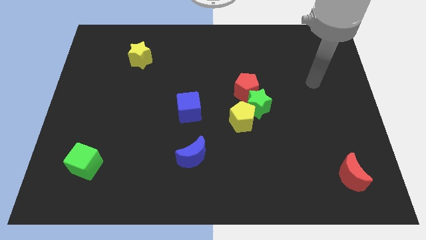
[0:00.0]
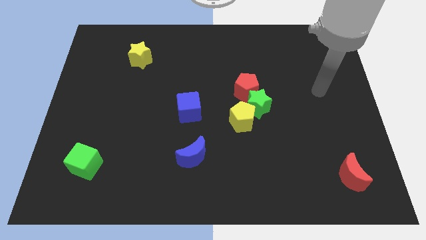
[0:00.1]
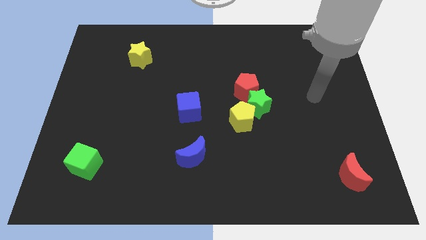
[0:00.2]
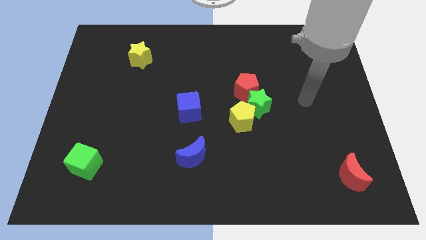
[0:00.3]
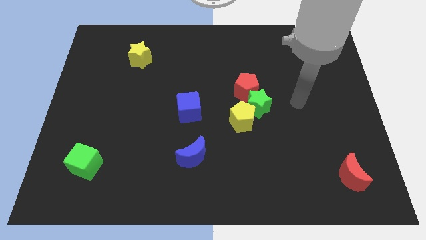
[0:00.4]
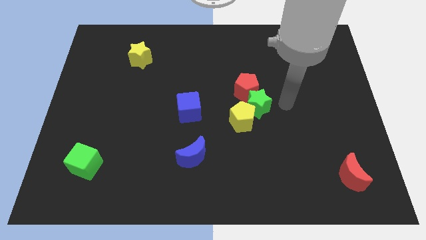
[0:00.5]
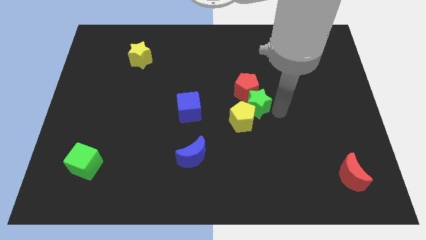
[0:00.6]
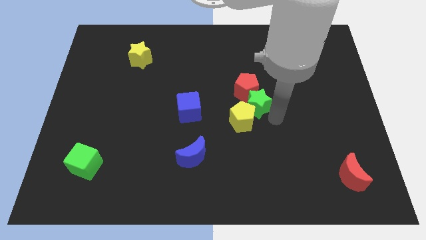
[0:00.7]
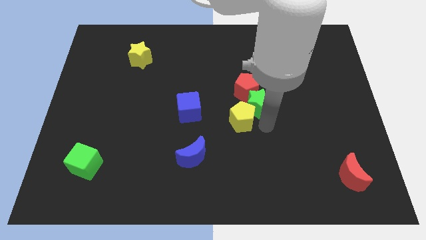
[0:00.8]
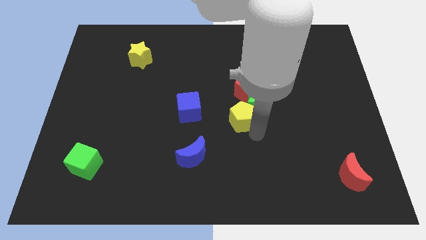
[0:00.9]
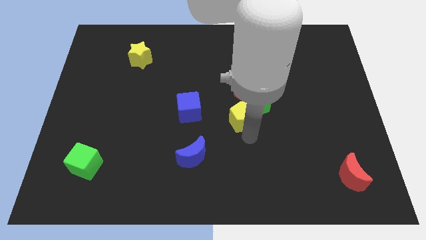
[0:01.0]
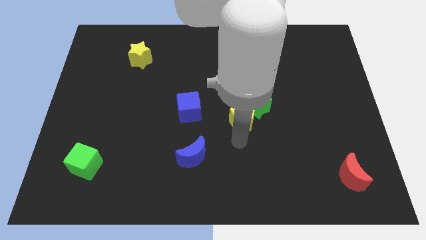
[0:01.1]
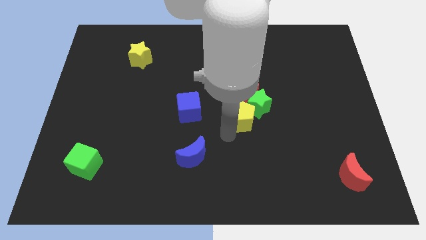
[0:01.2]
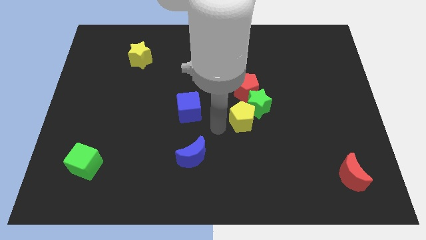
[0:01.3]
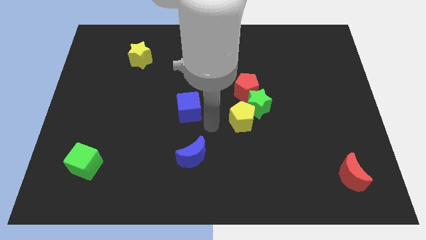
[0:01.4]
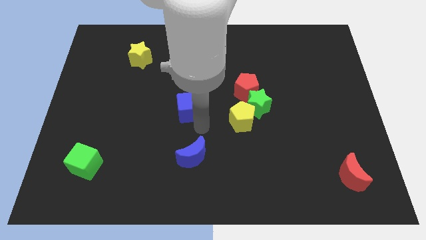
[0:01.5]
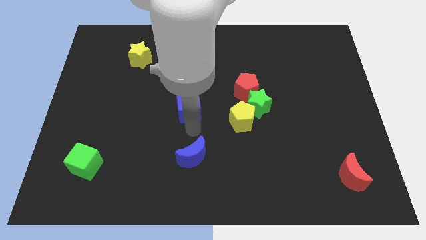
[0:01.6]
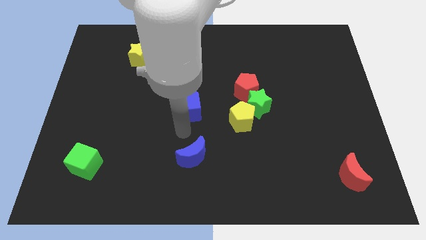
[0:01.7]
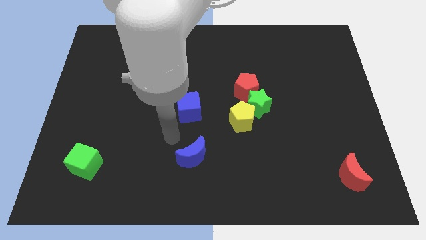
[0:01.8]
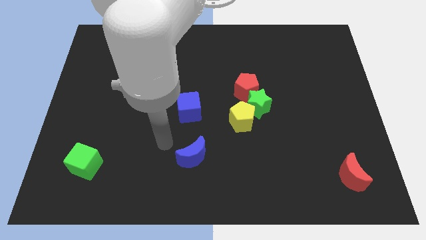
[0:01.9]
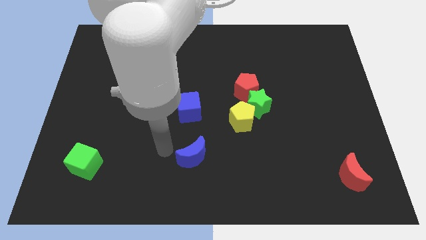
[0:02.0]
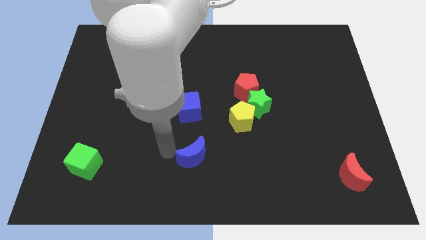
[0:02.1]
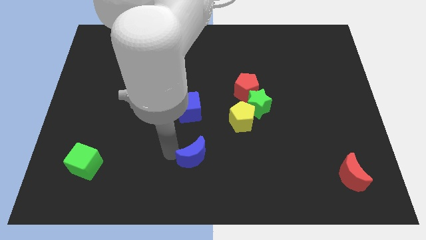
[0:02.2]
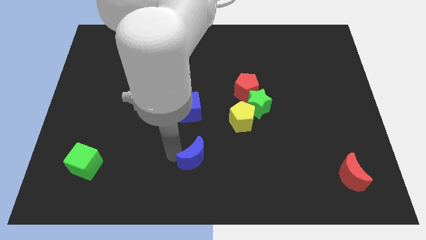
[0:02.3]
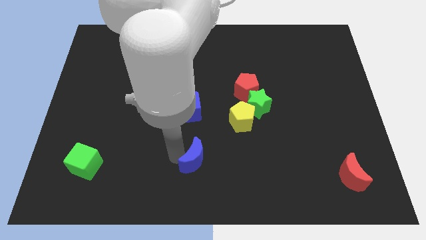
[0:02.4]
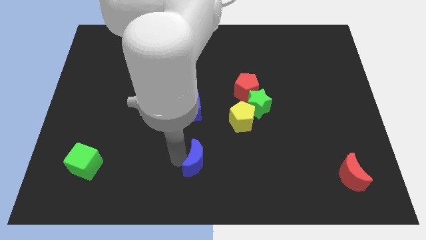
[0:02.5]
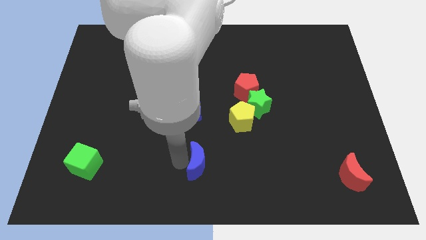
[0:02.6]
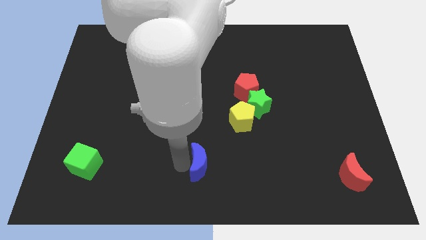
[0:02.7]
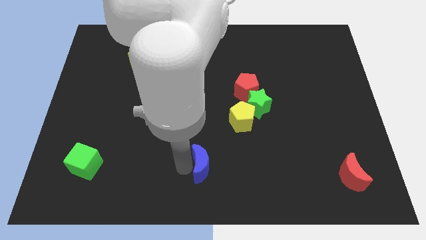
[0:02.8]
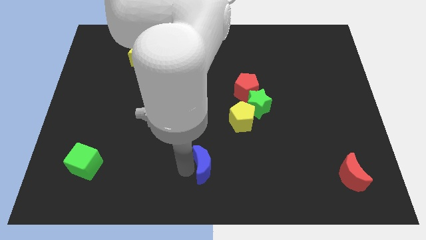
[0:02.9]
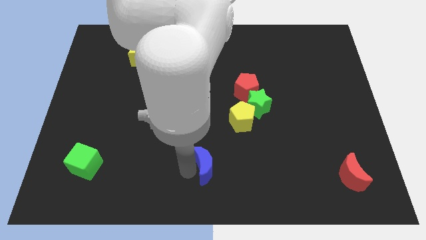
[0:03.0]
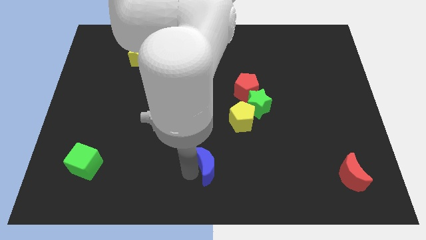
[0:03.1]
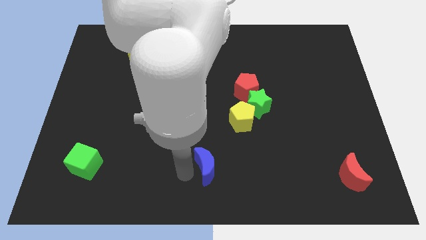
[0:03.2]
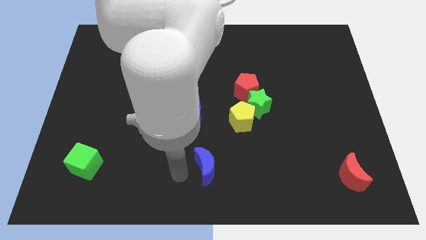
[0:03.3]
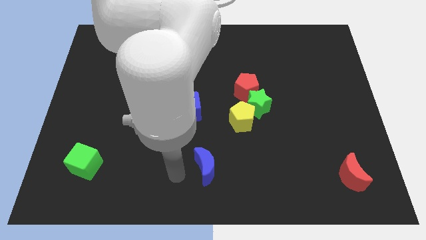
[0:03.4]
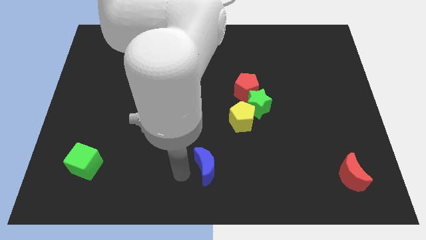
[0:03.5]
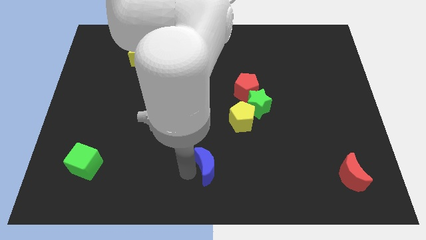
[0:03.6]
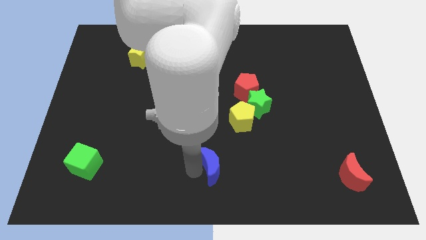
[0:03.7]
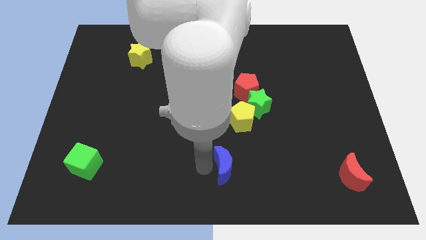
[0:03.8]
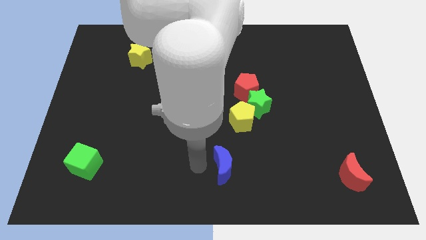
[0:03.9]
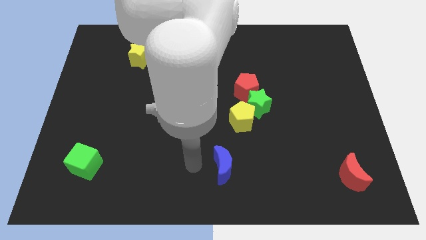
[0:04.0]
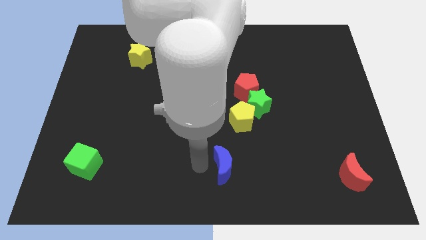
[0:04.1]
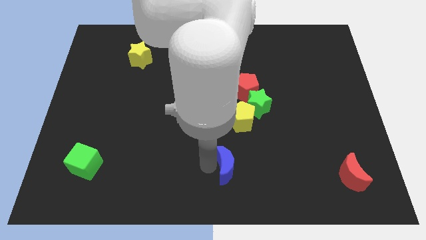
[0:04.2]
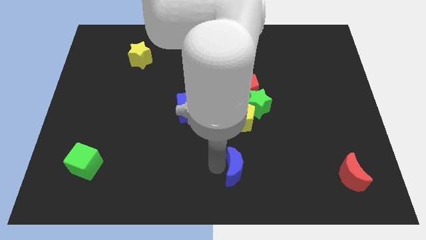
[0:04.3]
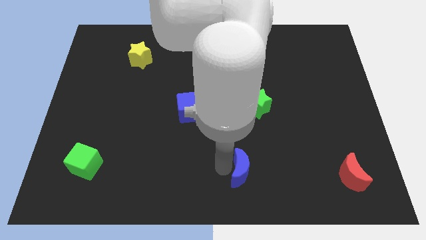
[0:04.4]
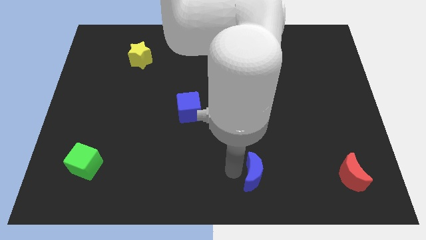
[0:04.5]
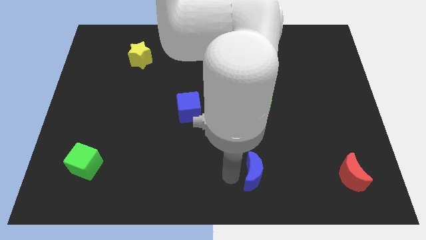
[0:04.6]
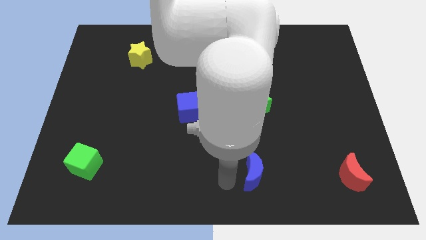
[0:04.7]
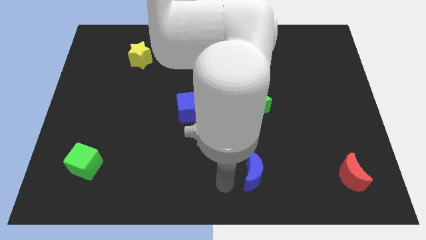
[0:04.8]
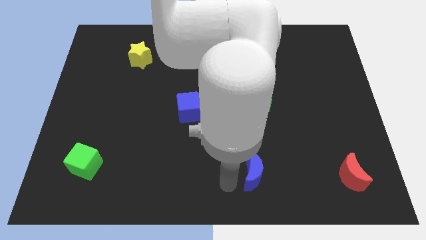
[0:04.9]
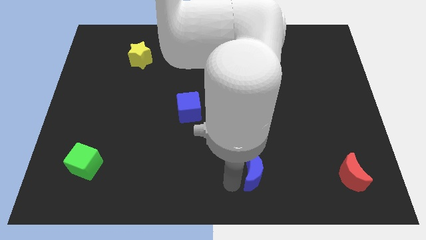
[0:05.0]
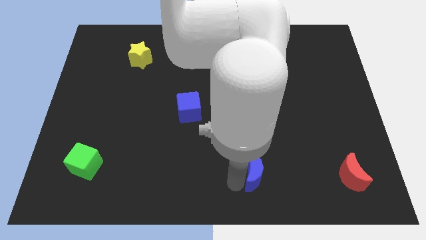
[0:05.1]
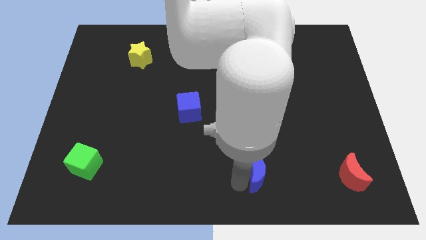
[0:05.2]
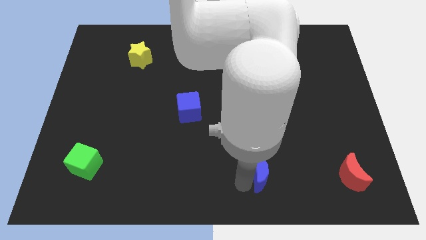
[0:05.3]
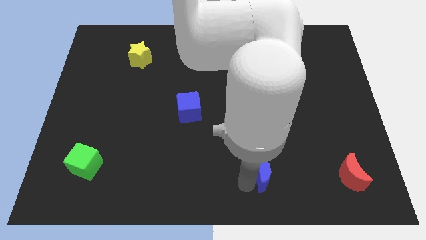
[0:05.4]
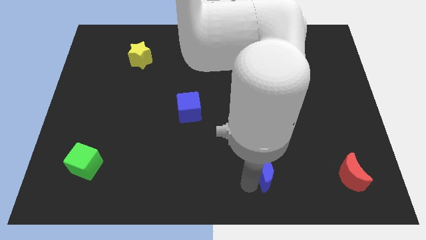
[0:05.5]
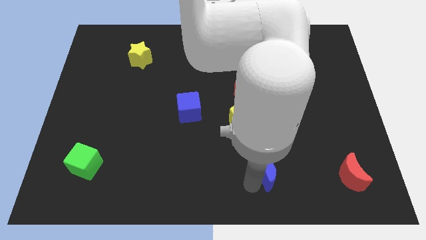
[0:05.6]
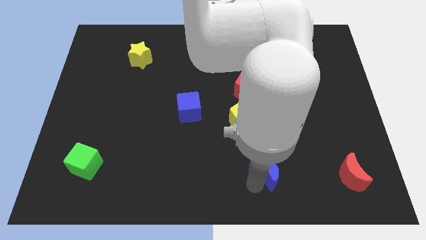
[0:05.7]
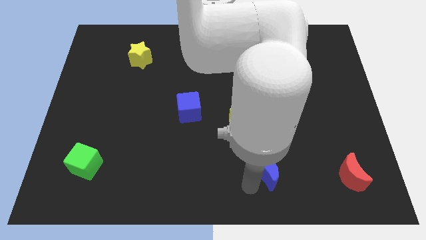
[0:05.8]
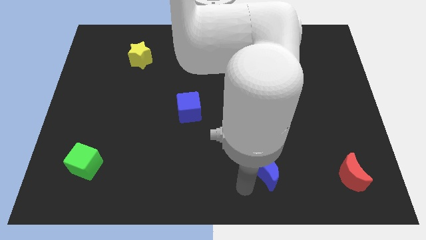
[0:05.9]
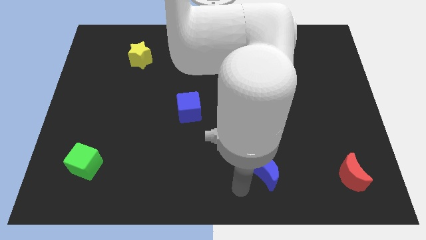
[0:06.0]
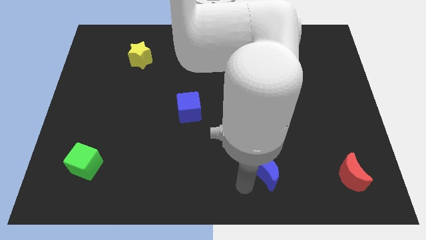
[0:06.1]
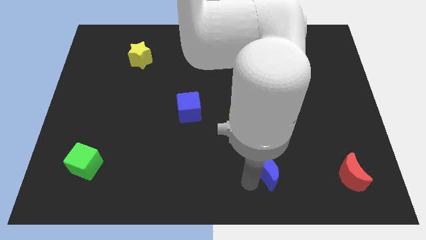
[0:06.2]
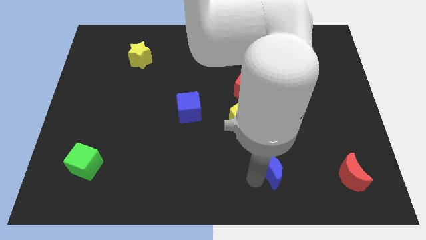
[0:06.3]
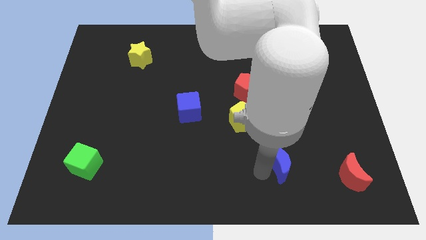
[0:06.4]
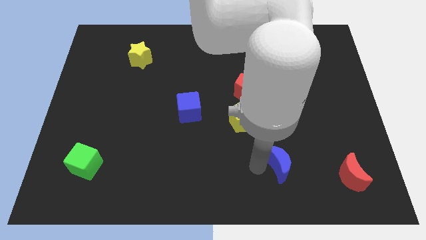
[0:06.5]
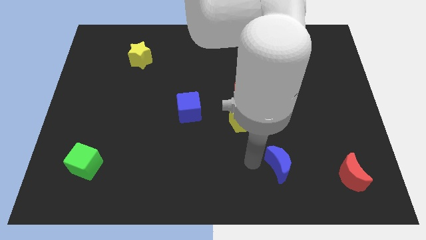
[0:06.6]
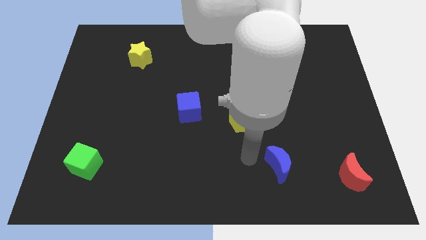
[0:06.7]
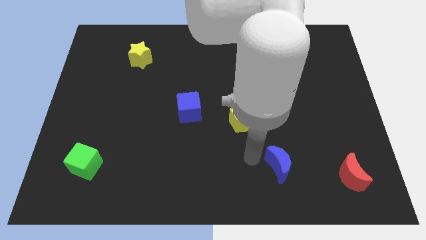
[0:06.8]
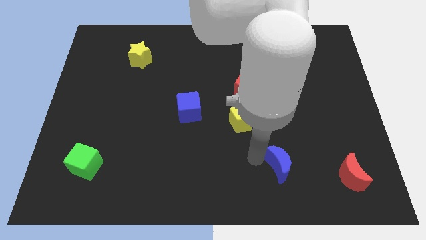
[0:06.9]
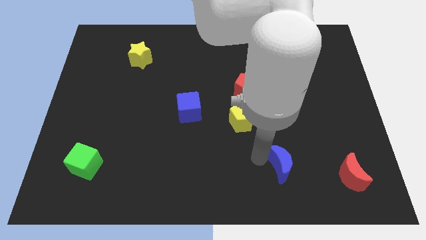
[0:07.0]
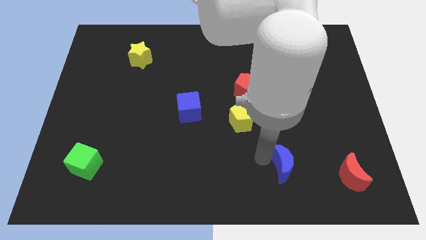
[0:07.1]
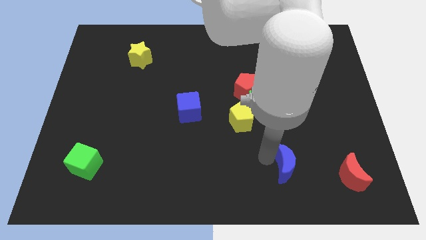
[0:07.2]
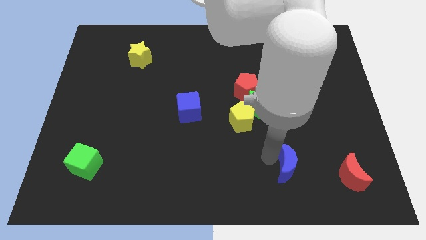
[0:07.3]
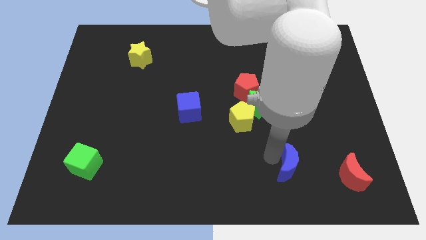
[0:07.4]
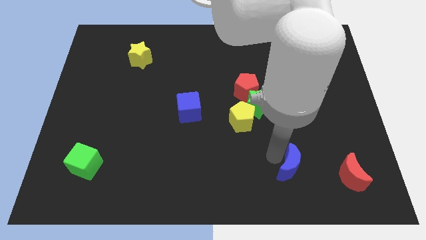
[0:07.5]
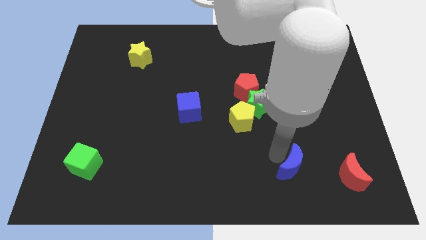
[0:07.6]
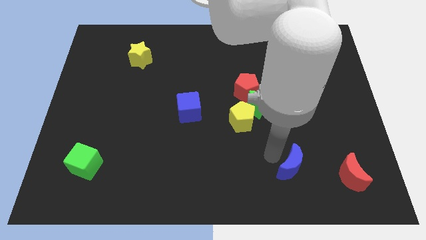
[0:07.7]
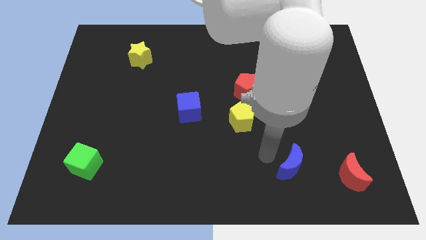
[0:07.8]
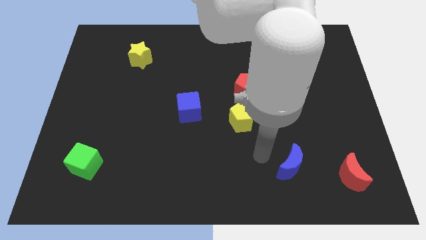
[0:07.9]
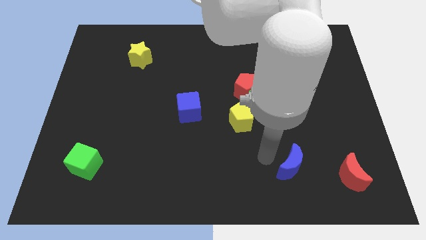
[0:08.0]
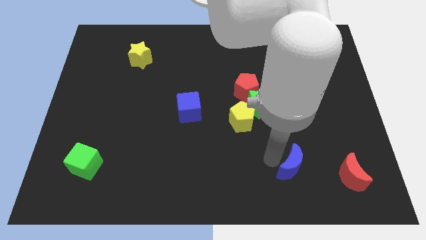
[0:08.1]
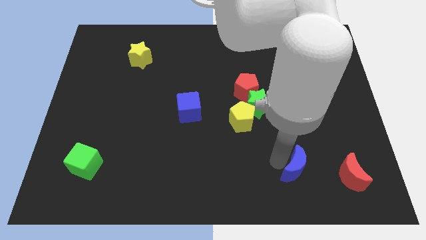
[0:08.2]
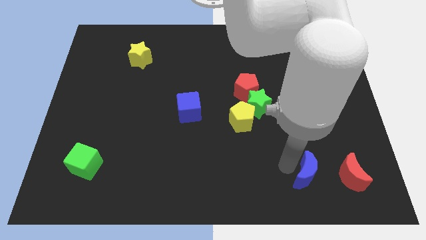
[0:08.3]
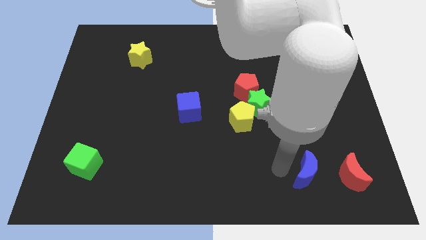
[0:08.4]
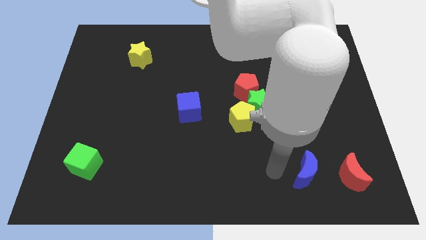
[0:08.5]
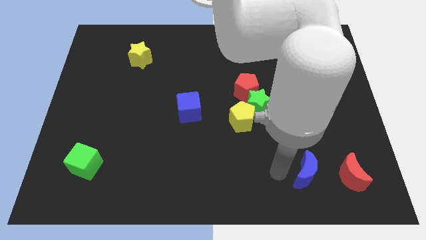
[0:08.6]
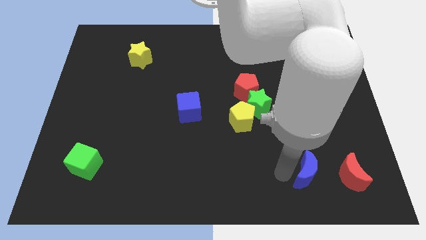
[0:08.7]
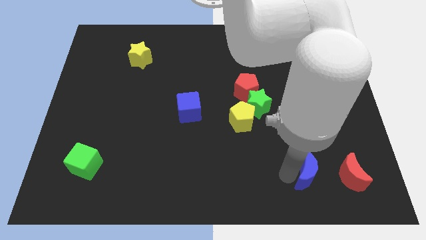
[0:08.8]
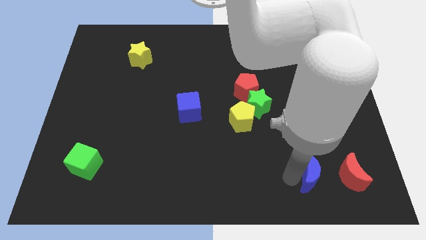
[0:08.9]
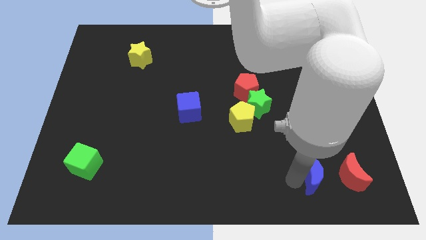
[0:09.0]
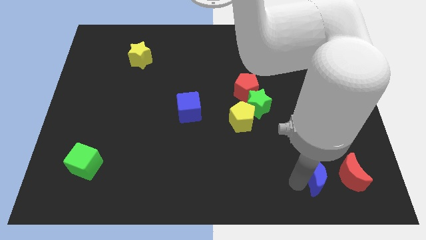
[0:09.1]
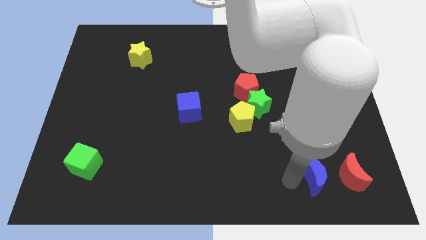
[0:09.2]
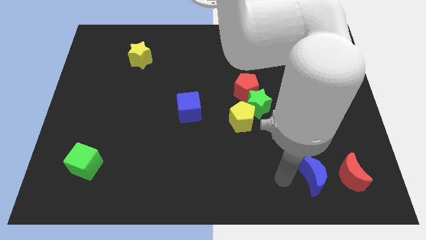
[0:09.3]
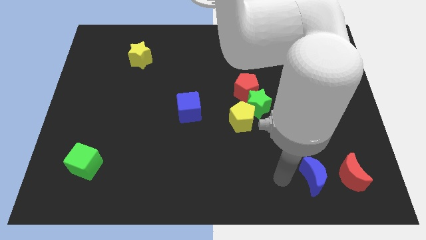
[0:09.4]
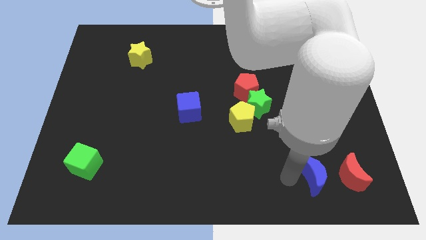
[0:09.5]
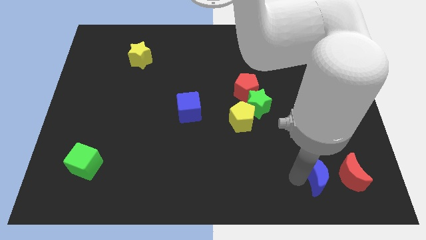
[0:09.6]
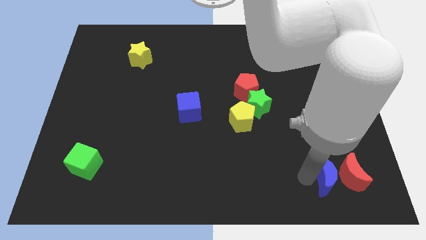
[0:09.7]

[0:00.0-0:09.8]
slide the blue moon to the red moon
